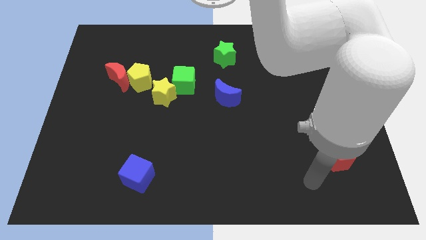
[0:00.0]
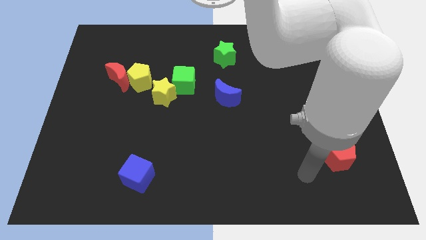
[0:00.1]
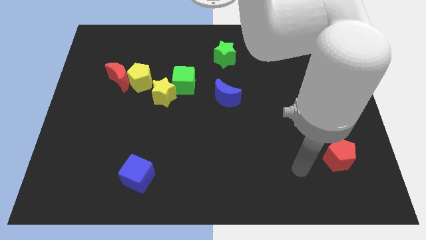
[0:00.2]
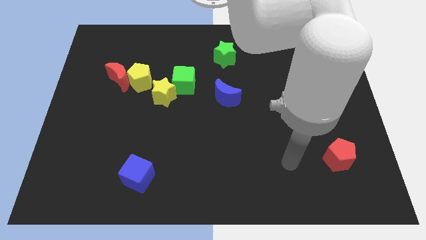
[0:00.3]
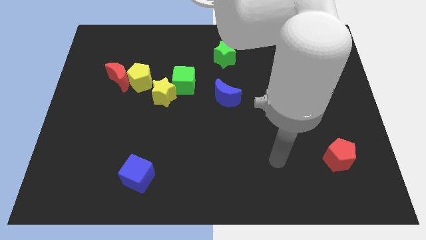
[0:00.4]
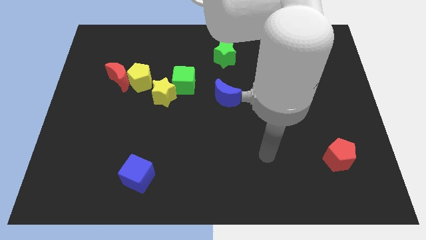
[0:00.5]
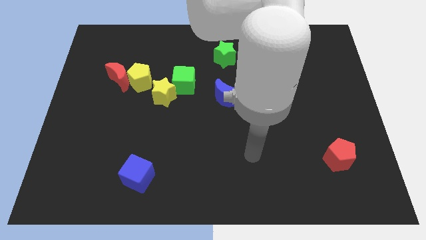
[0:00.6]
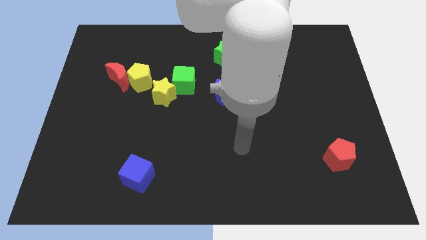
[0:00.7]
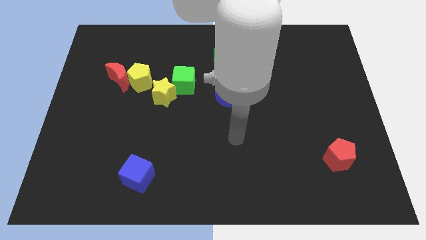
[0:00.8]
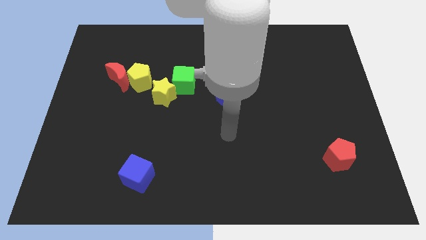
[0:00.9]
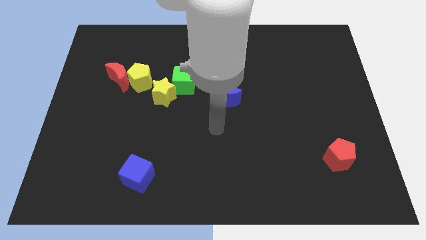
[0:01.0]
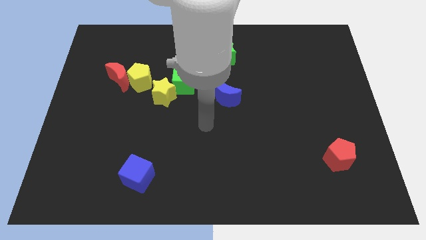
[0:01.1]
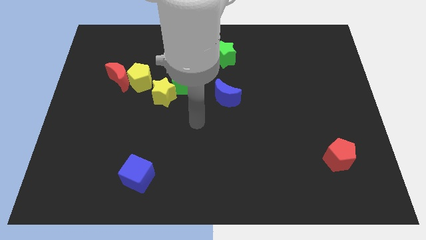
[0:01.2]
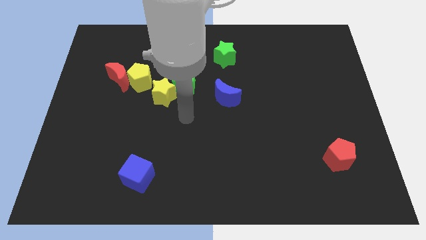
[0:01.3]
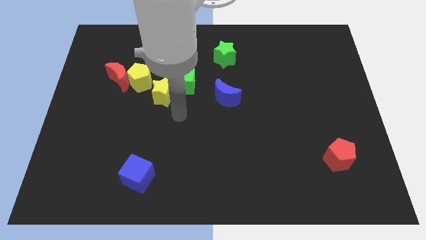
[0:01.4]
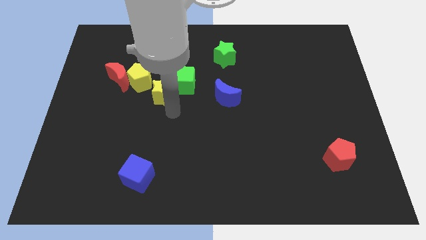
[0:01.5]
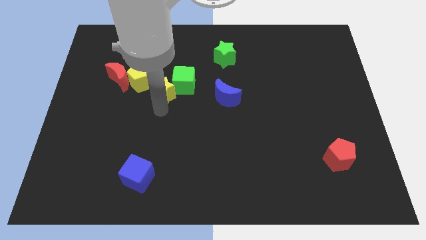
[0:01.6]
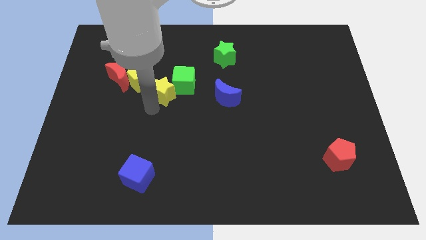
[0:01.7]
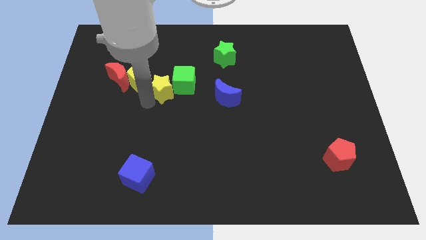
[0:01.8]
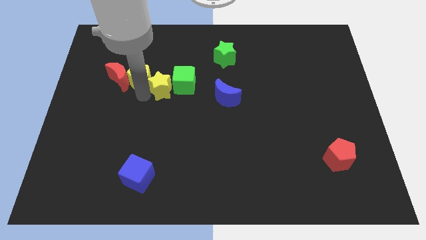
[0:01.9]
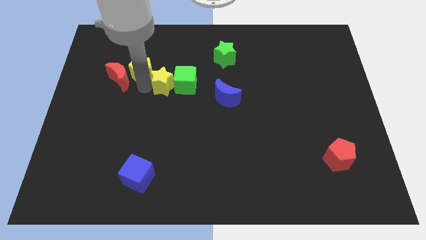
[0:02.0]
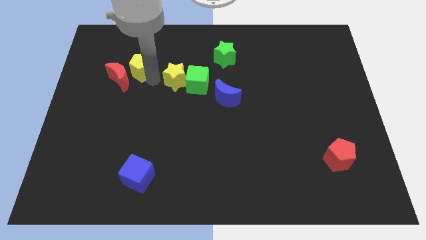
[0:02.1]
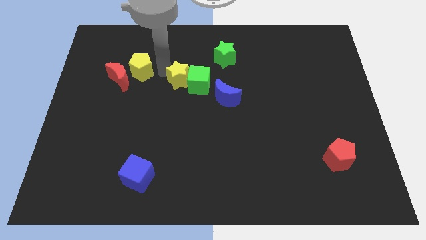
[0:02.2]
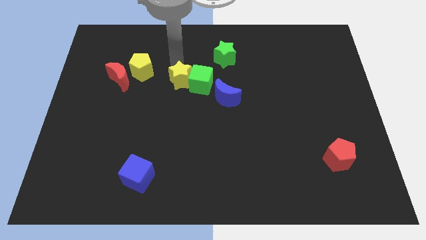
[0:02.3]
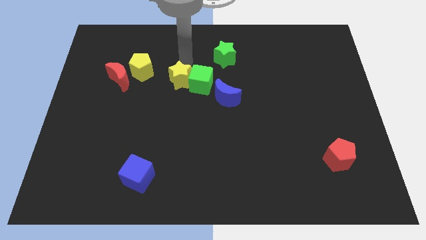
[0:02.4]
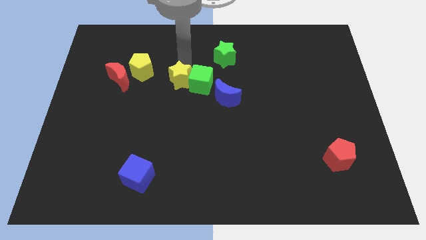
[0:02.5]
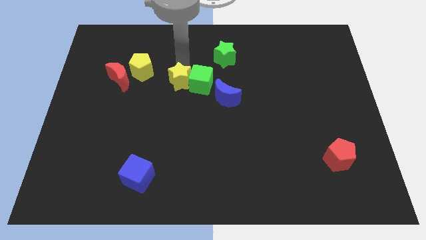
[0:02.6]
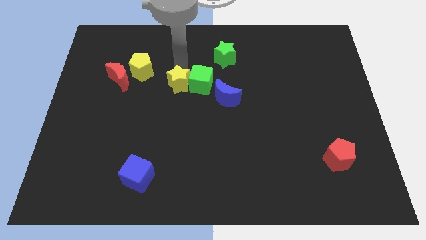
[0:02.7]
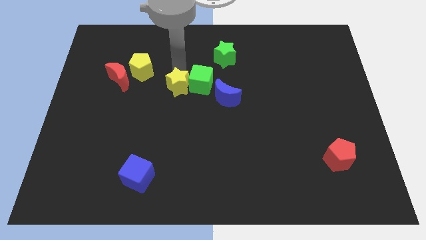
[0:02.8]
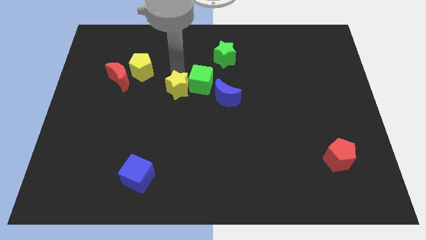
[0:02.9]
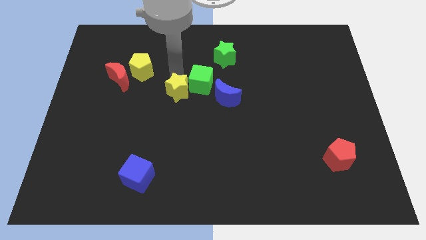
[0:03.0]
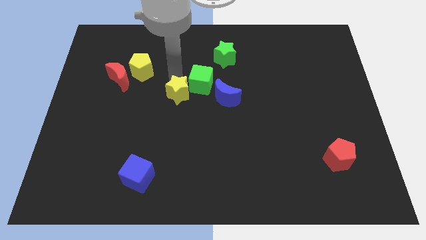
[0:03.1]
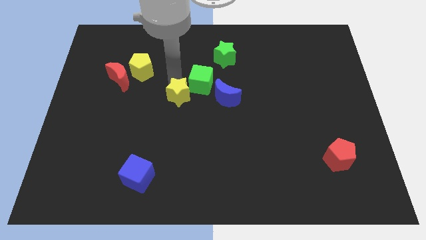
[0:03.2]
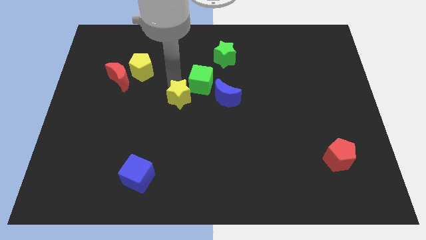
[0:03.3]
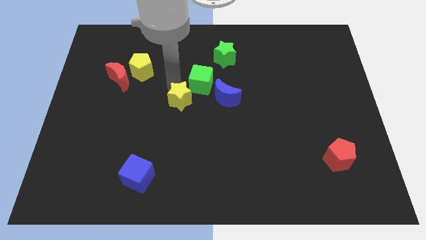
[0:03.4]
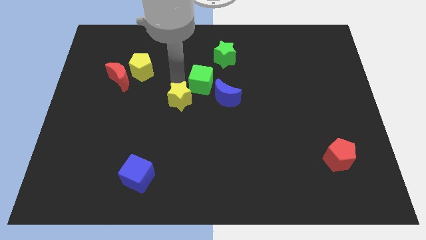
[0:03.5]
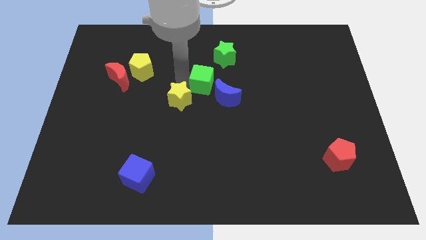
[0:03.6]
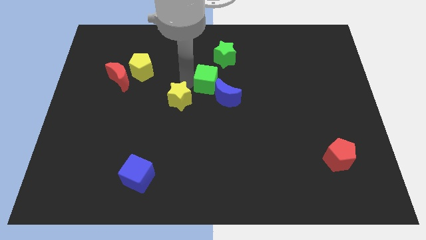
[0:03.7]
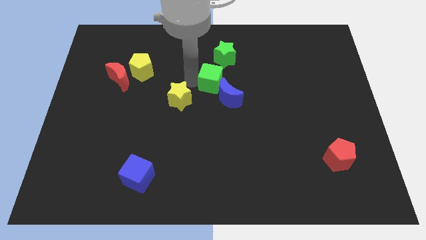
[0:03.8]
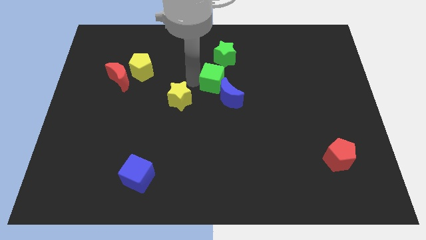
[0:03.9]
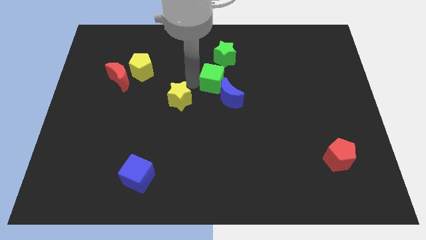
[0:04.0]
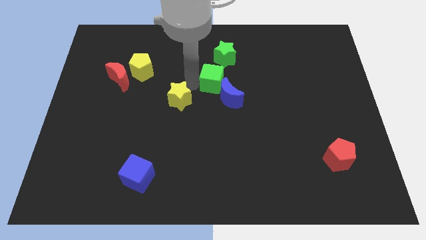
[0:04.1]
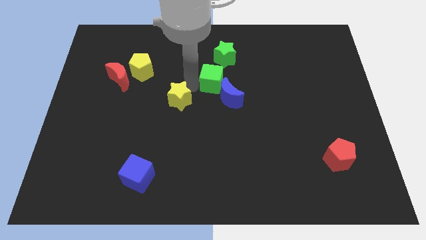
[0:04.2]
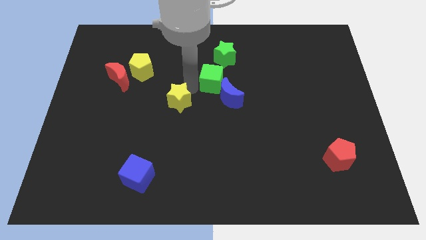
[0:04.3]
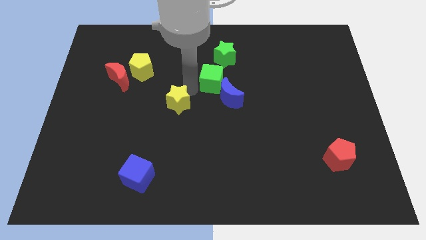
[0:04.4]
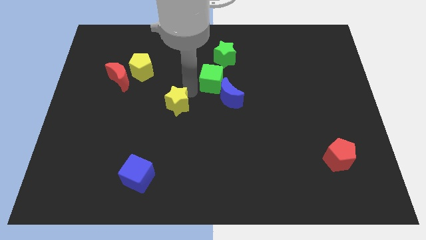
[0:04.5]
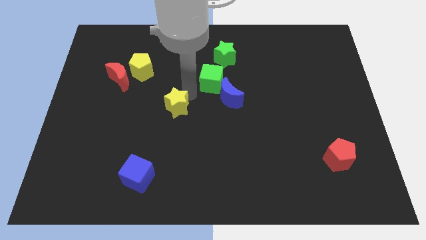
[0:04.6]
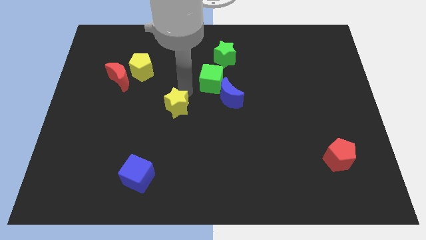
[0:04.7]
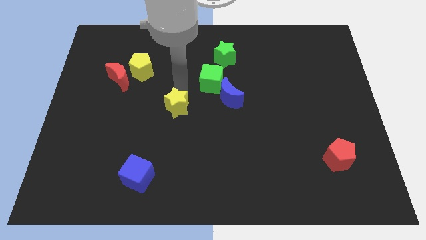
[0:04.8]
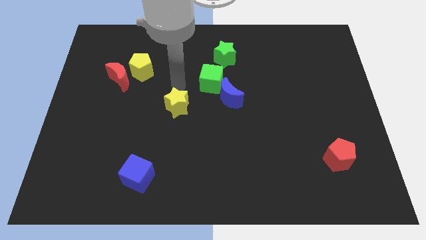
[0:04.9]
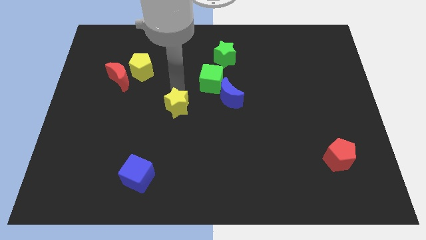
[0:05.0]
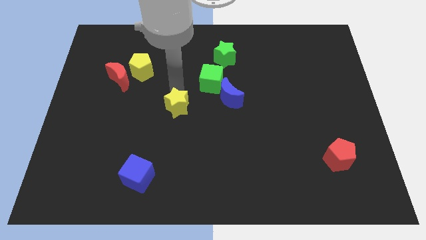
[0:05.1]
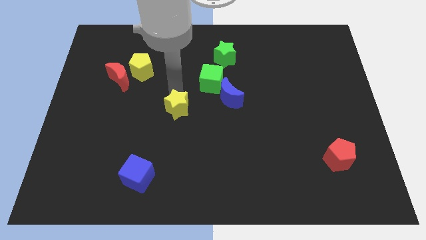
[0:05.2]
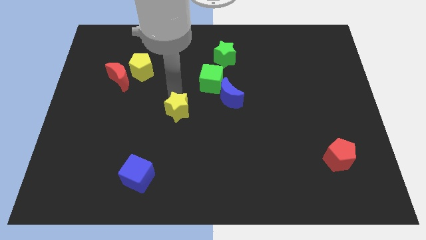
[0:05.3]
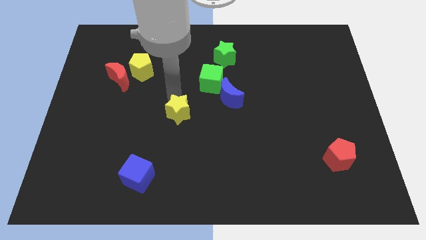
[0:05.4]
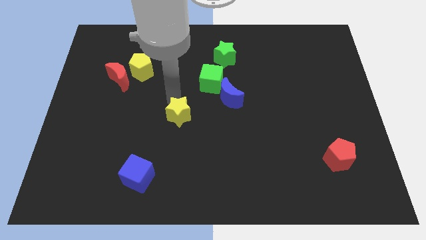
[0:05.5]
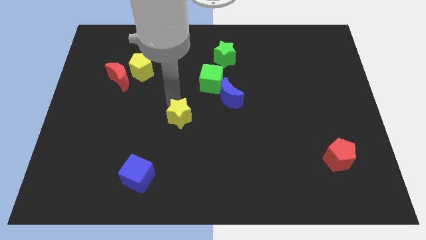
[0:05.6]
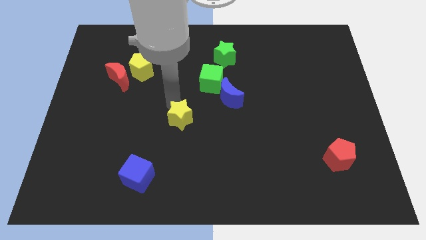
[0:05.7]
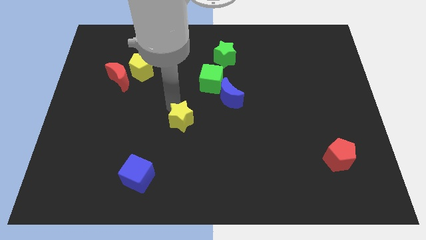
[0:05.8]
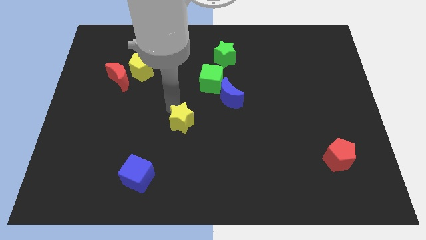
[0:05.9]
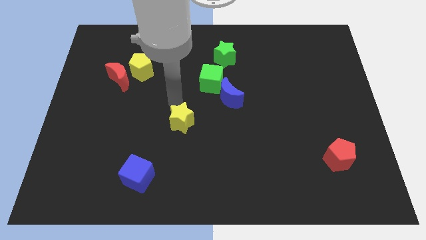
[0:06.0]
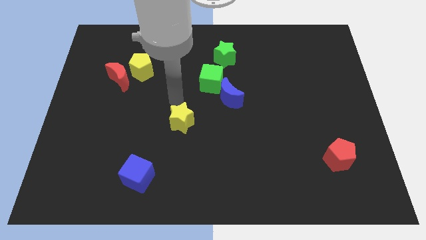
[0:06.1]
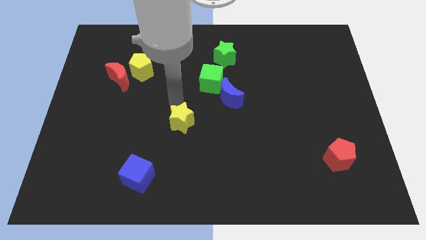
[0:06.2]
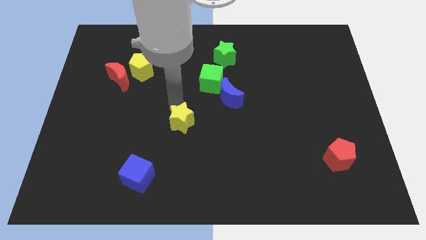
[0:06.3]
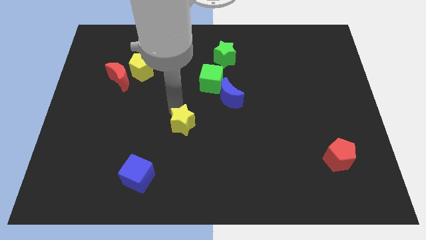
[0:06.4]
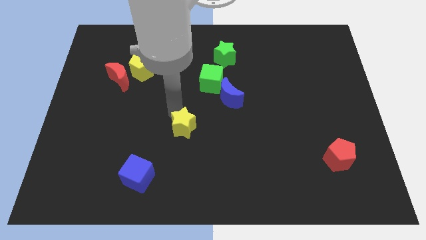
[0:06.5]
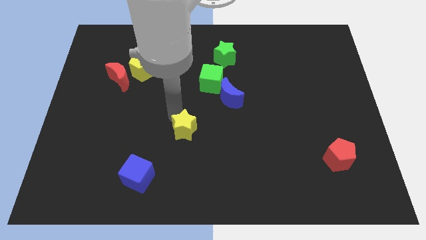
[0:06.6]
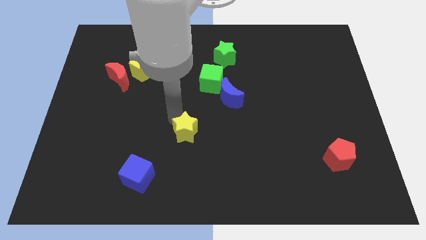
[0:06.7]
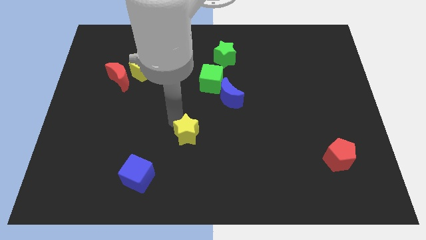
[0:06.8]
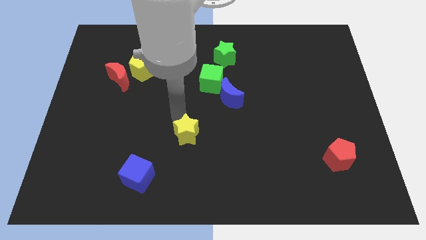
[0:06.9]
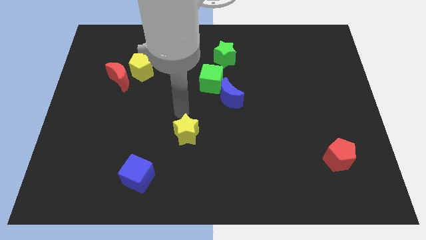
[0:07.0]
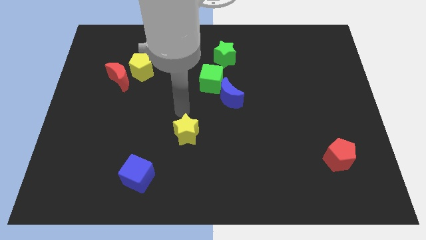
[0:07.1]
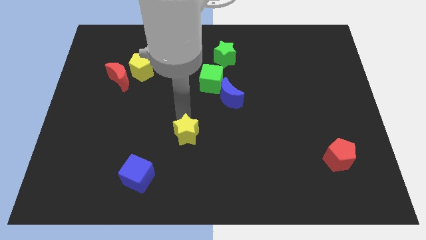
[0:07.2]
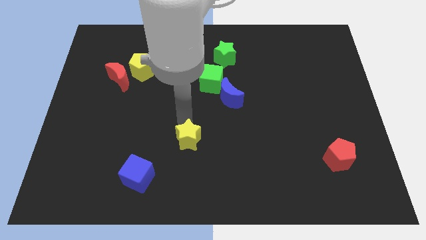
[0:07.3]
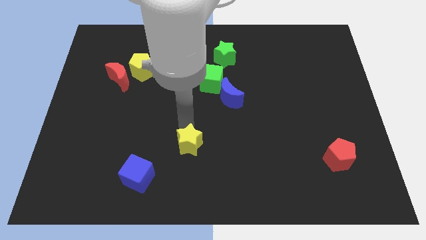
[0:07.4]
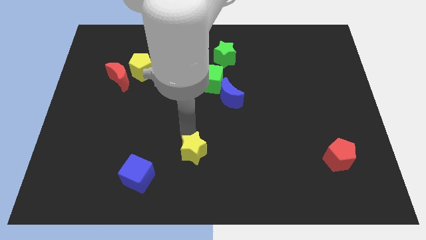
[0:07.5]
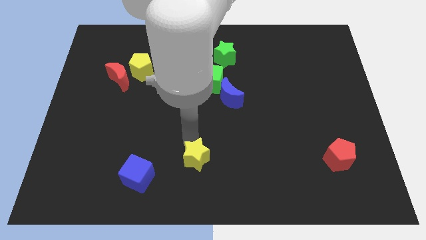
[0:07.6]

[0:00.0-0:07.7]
slide the yellow star to the bottom
